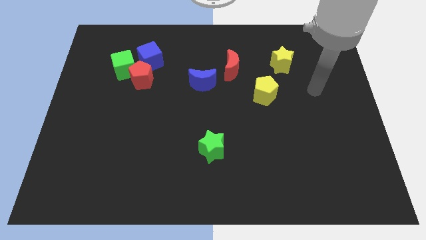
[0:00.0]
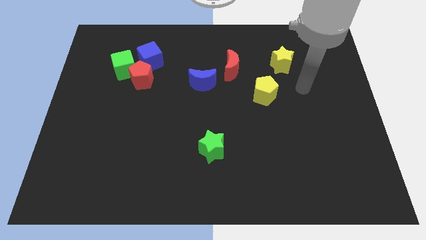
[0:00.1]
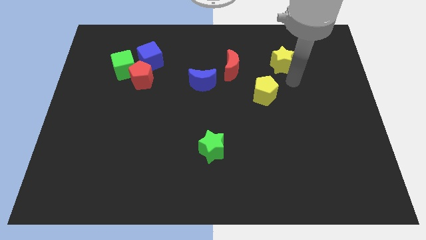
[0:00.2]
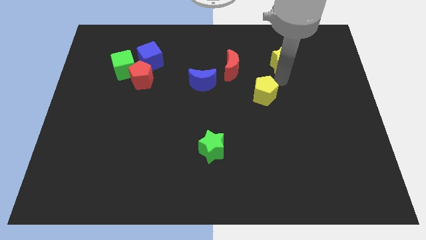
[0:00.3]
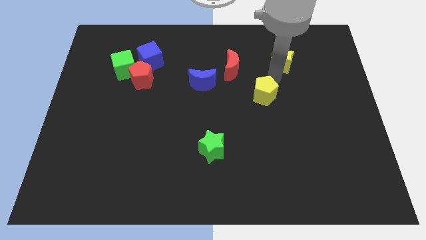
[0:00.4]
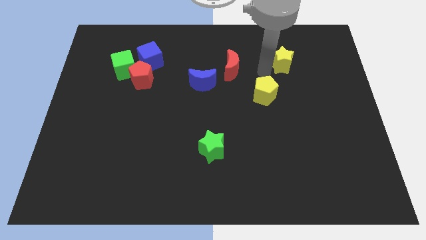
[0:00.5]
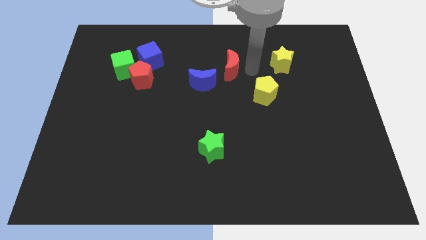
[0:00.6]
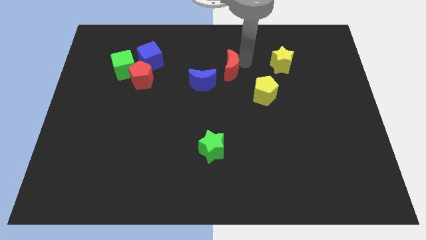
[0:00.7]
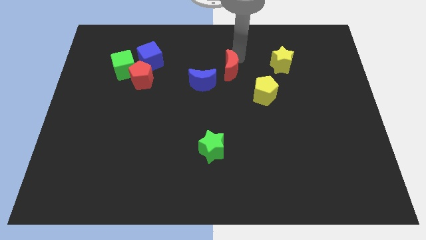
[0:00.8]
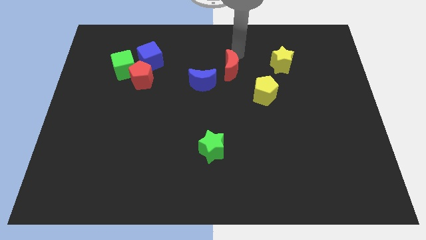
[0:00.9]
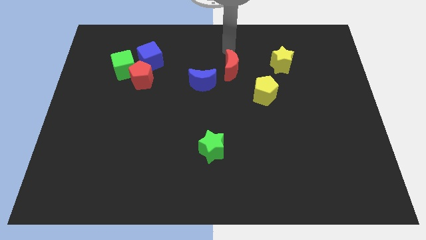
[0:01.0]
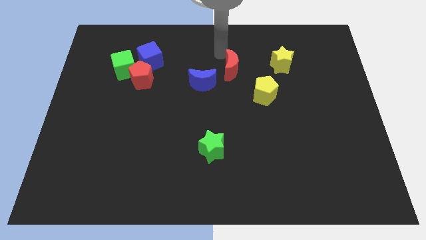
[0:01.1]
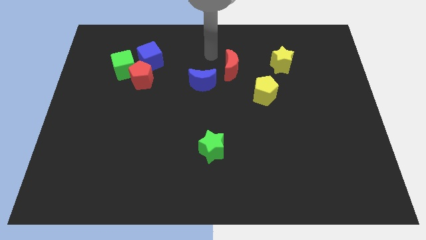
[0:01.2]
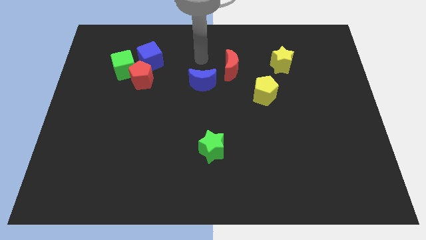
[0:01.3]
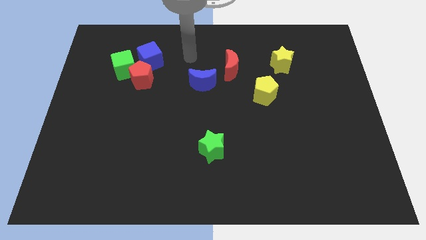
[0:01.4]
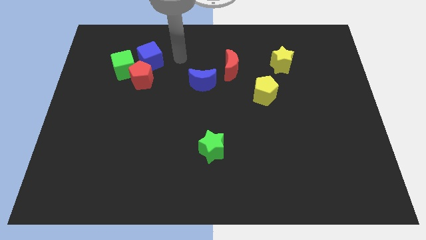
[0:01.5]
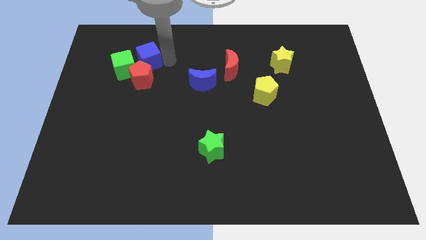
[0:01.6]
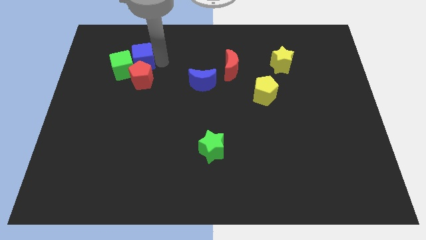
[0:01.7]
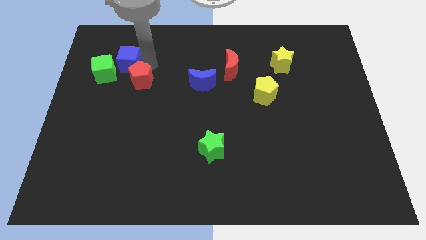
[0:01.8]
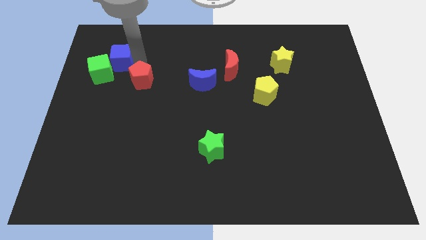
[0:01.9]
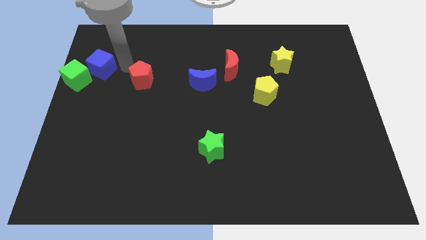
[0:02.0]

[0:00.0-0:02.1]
separate the red pentagon from the green cube and blue cube

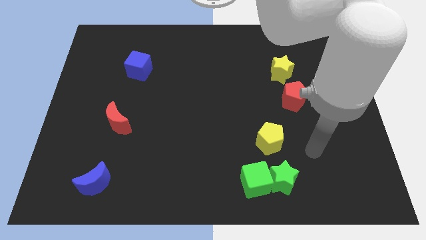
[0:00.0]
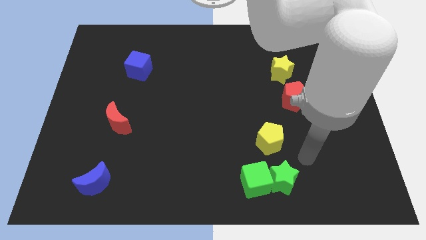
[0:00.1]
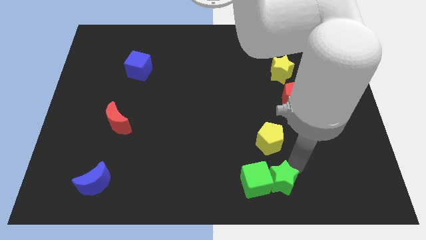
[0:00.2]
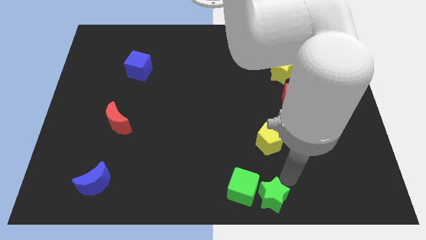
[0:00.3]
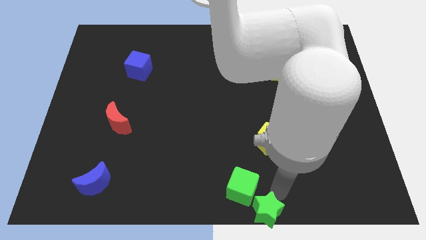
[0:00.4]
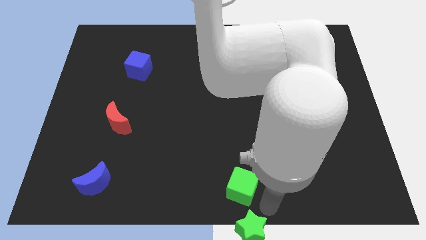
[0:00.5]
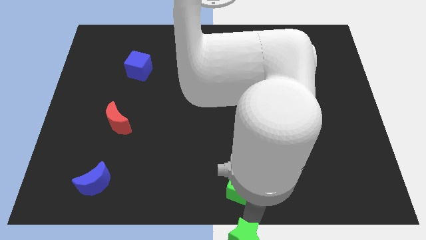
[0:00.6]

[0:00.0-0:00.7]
pull the green cube apart from the green star

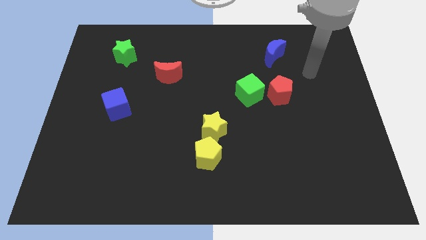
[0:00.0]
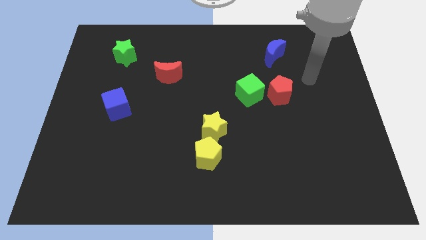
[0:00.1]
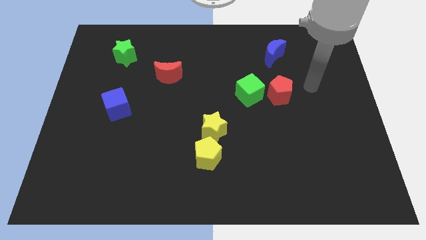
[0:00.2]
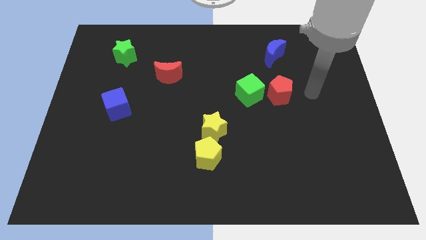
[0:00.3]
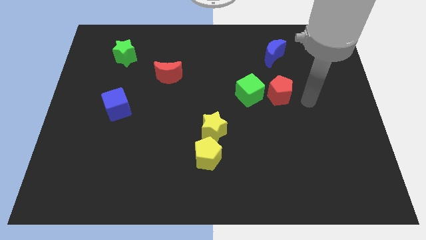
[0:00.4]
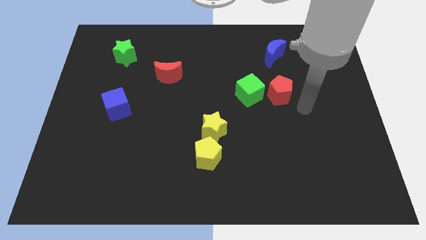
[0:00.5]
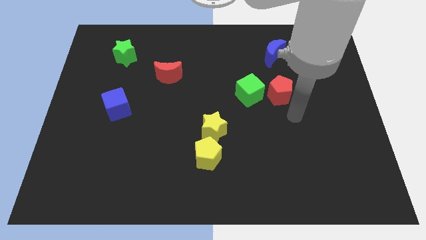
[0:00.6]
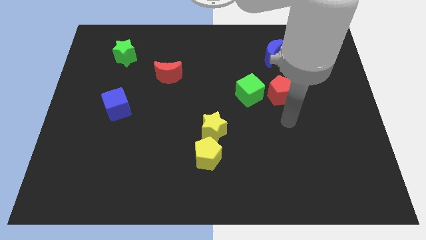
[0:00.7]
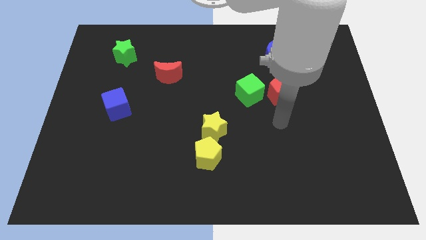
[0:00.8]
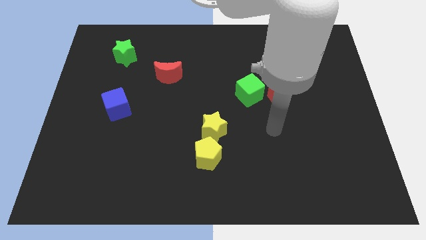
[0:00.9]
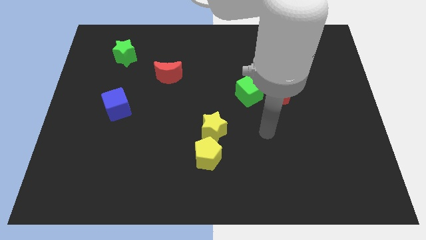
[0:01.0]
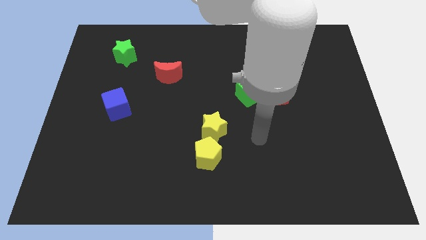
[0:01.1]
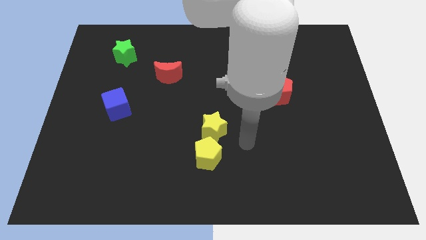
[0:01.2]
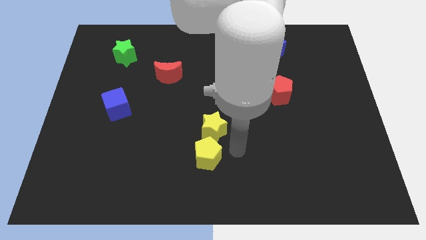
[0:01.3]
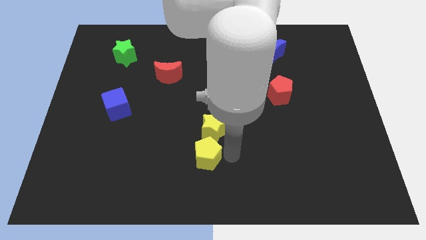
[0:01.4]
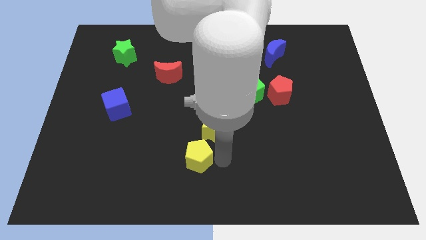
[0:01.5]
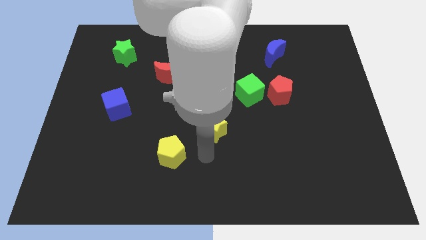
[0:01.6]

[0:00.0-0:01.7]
separate the yellow star from the yellow pentagon

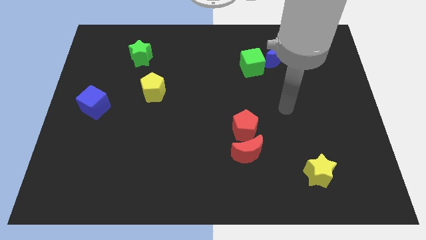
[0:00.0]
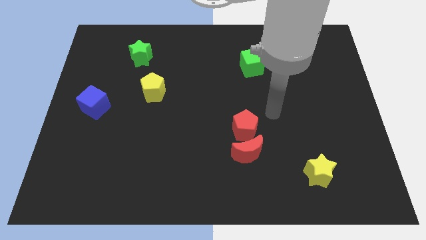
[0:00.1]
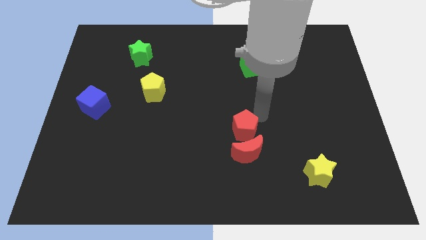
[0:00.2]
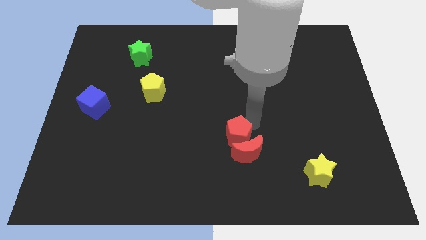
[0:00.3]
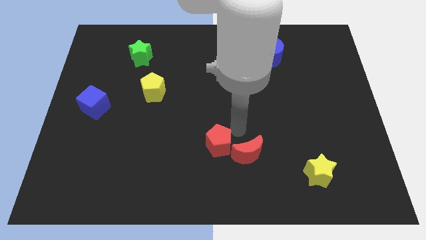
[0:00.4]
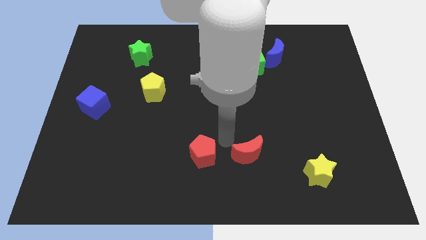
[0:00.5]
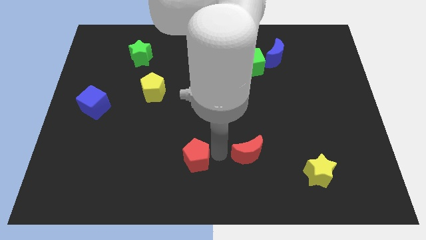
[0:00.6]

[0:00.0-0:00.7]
move the red moon away from the red pentagon

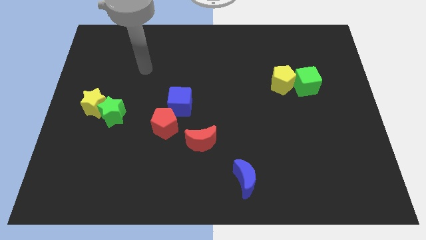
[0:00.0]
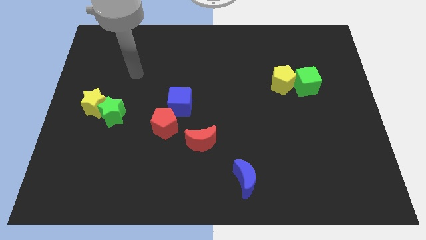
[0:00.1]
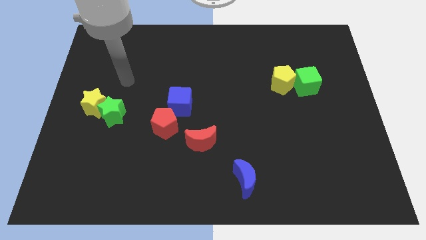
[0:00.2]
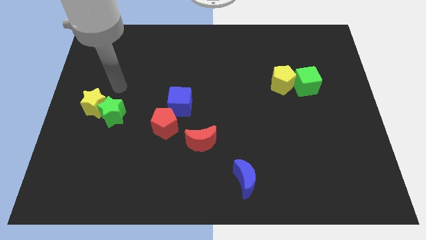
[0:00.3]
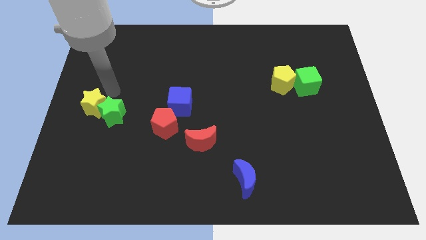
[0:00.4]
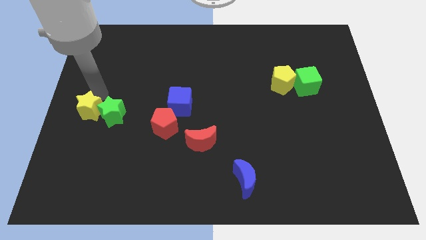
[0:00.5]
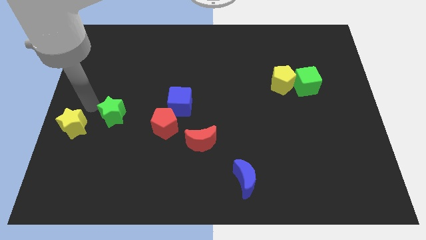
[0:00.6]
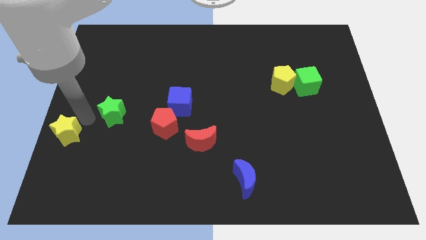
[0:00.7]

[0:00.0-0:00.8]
move the green star away from the yellow star

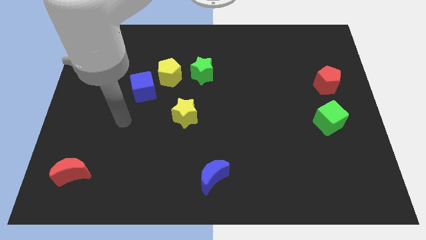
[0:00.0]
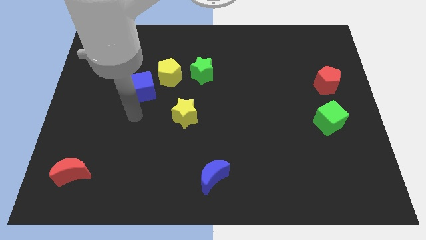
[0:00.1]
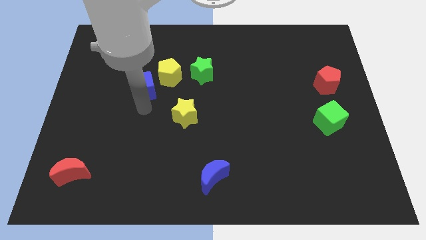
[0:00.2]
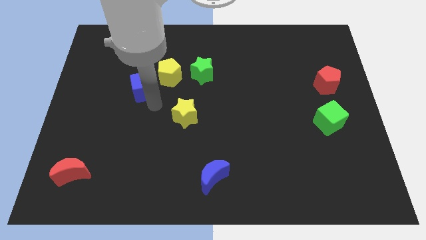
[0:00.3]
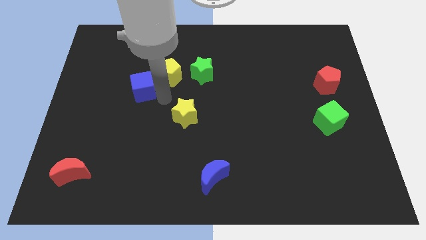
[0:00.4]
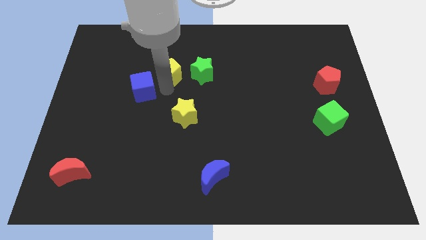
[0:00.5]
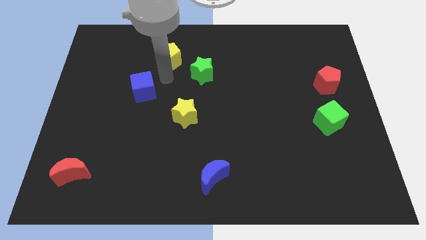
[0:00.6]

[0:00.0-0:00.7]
pull the blue cube apart from the yellow pentagon

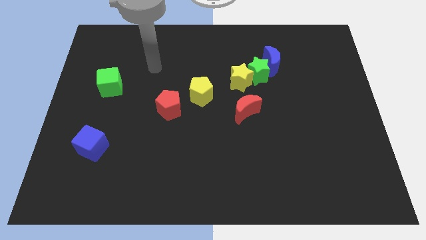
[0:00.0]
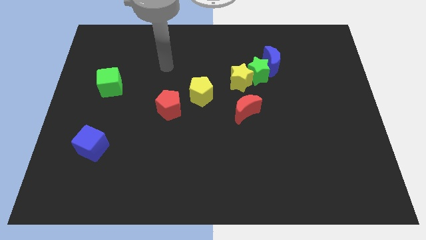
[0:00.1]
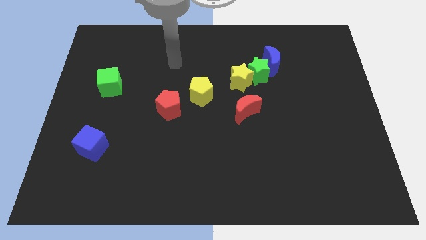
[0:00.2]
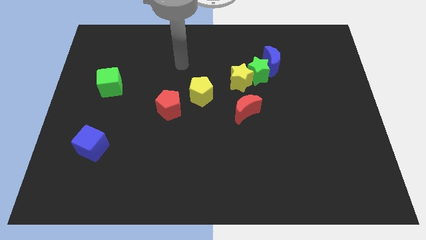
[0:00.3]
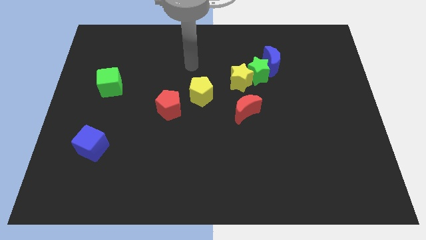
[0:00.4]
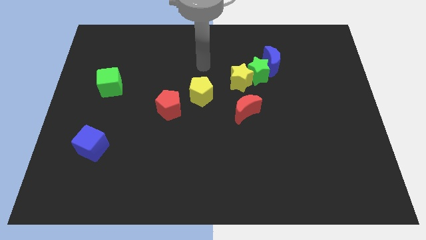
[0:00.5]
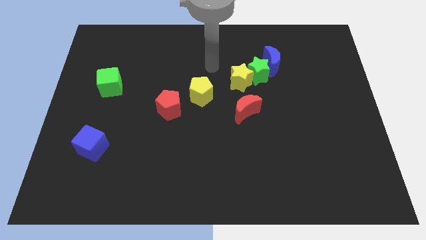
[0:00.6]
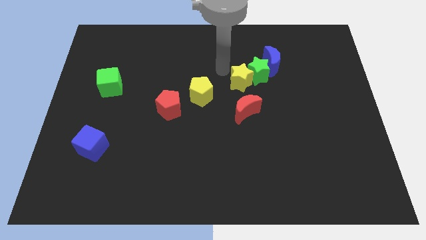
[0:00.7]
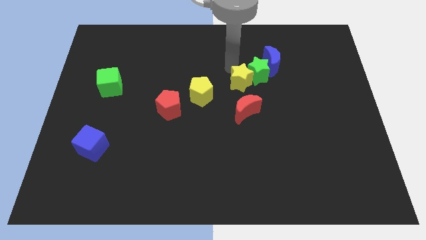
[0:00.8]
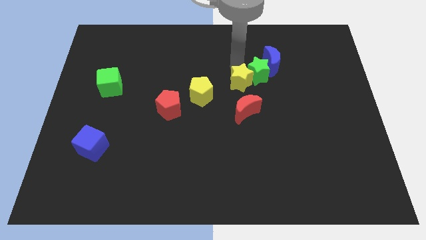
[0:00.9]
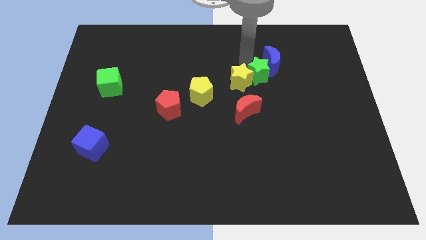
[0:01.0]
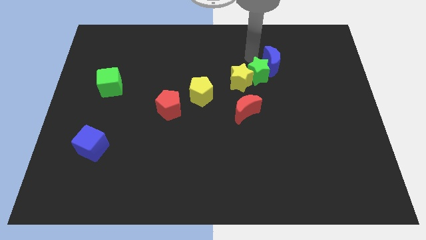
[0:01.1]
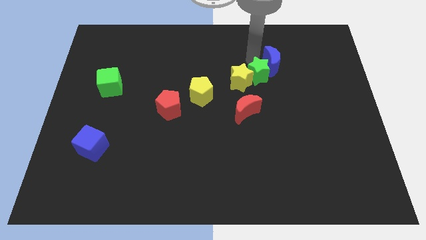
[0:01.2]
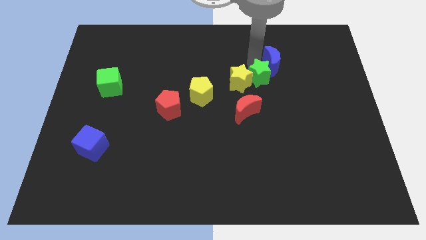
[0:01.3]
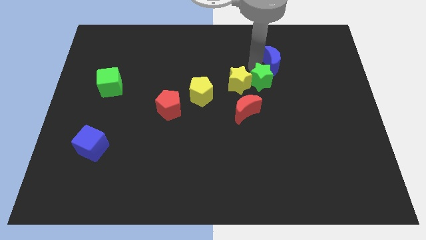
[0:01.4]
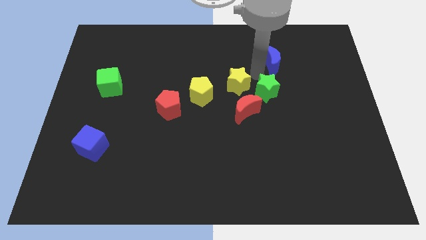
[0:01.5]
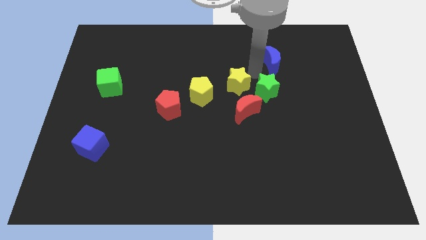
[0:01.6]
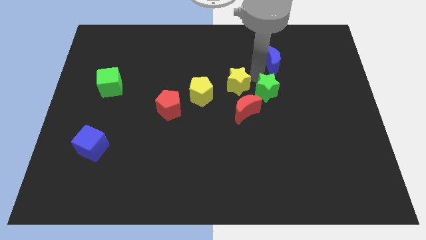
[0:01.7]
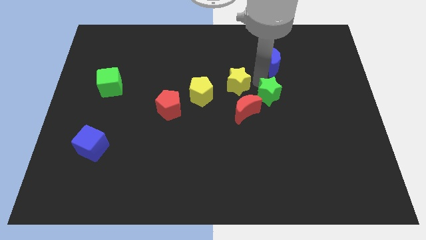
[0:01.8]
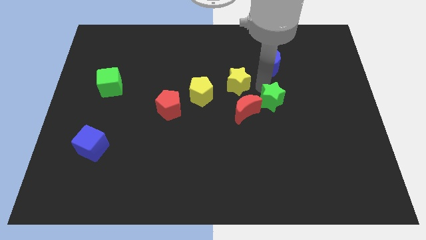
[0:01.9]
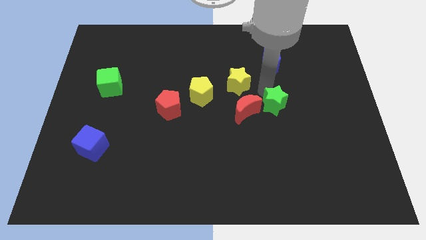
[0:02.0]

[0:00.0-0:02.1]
move the green star away from the yellow star and blue moon

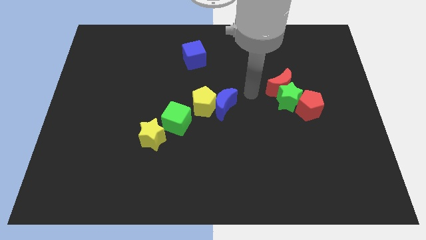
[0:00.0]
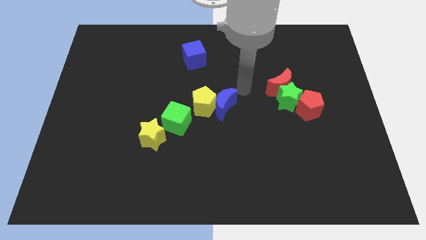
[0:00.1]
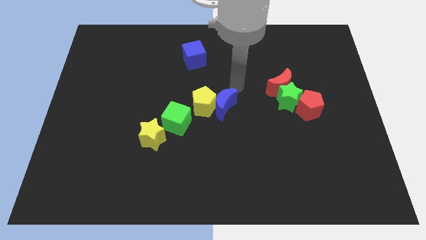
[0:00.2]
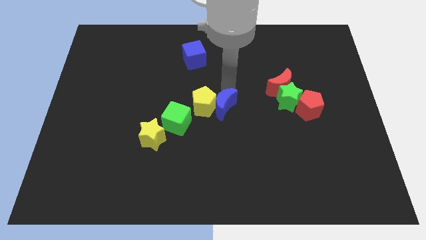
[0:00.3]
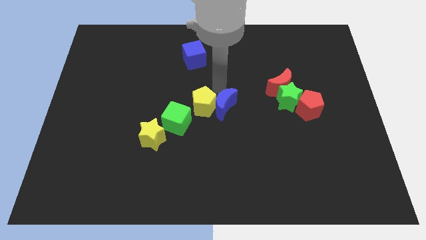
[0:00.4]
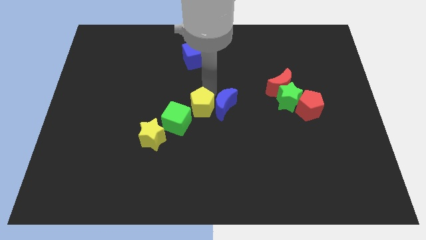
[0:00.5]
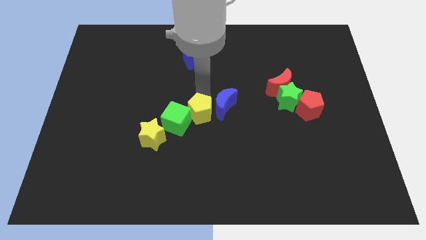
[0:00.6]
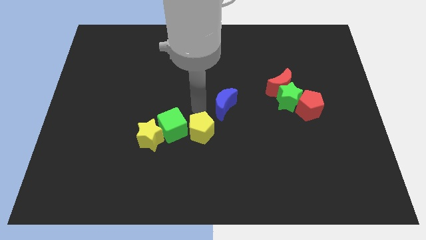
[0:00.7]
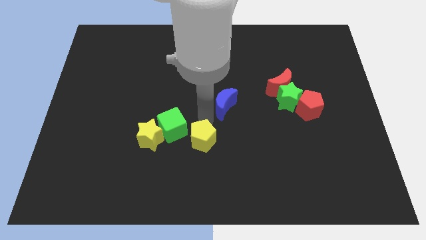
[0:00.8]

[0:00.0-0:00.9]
separate the blue moon from the yellow pentagon
